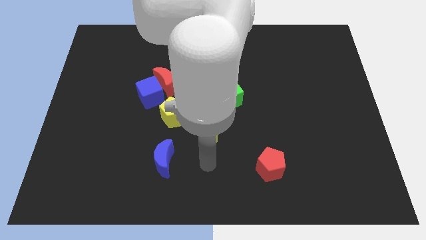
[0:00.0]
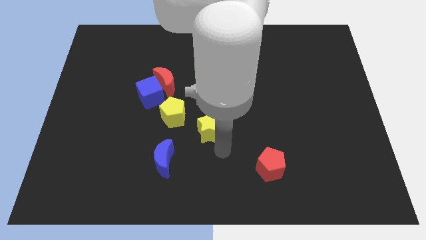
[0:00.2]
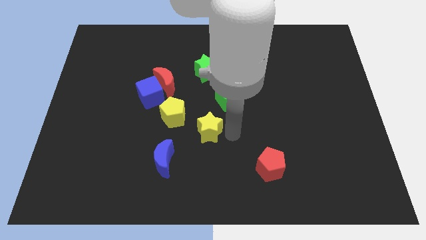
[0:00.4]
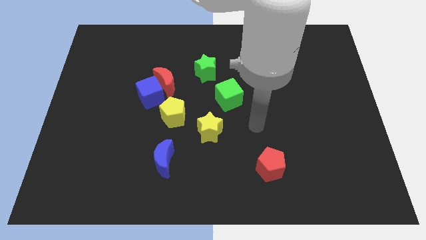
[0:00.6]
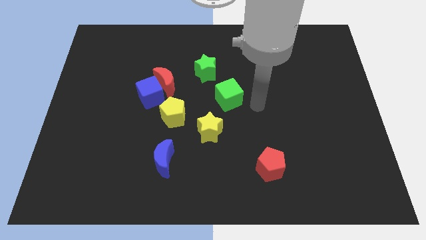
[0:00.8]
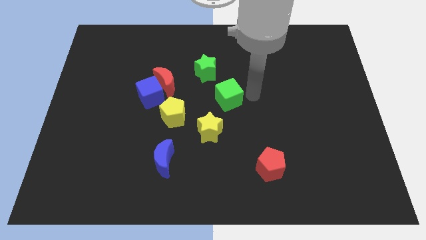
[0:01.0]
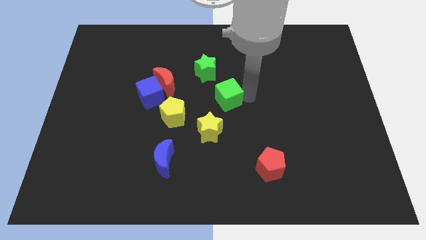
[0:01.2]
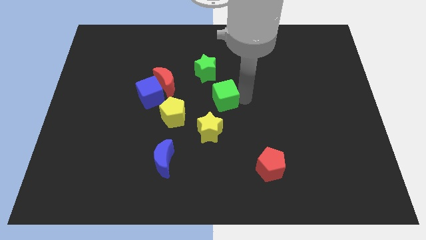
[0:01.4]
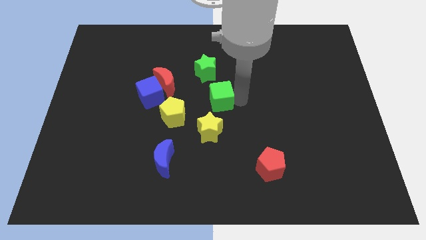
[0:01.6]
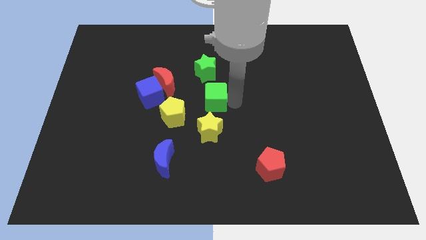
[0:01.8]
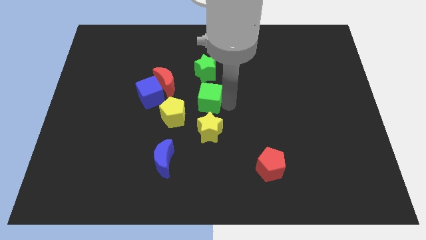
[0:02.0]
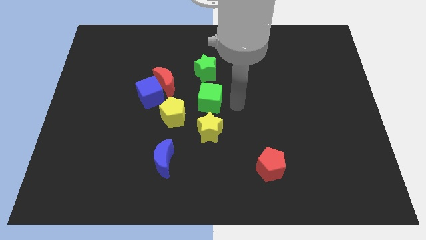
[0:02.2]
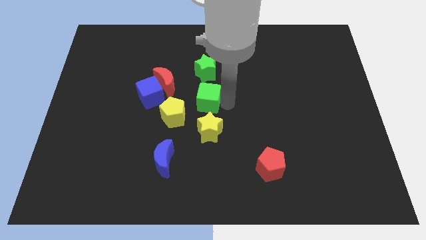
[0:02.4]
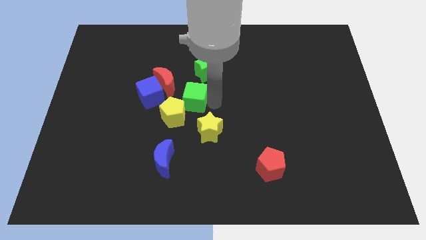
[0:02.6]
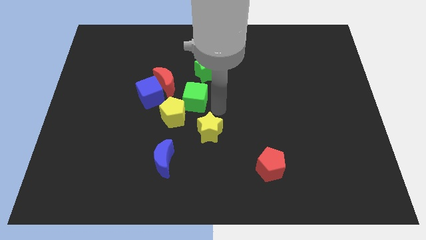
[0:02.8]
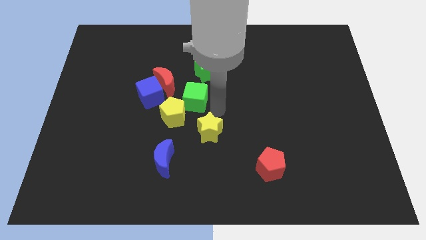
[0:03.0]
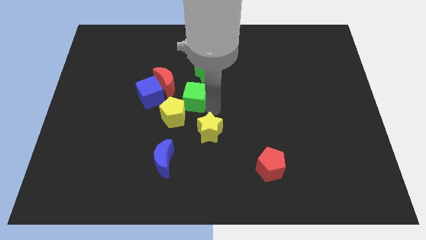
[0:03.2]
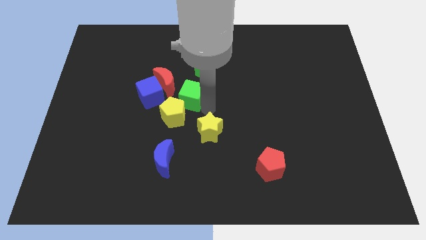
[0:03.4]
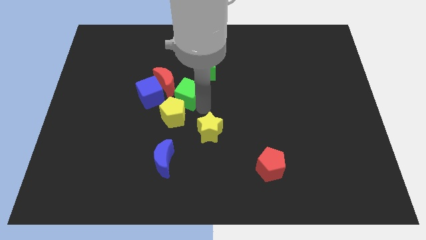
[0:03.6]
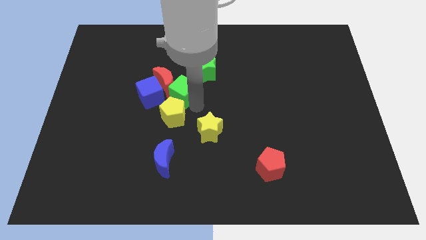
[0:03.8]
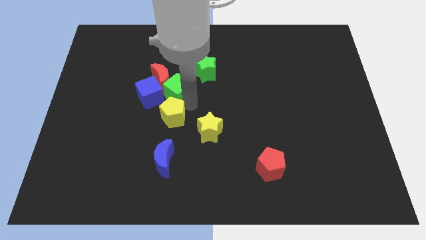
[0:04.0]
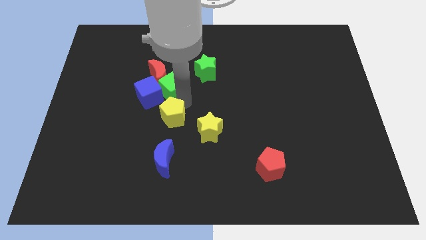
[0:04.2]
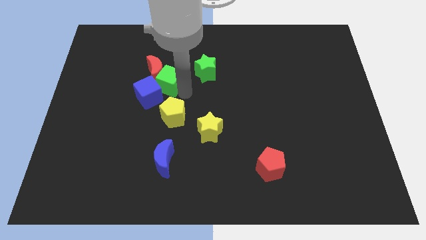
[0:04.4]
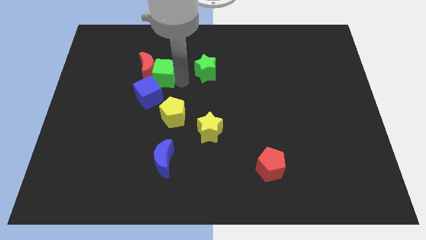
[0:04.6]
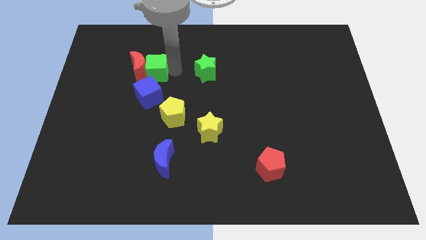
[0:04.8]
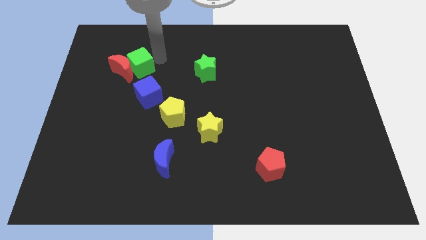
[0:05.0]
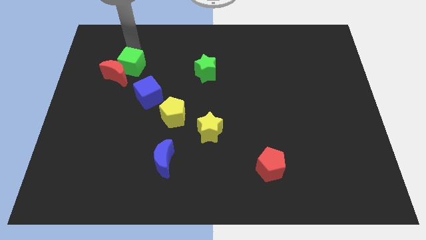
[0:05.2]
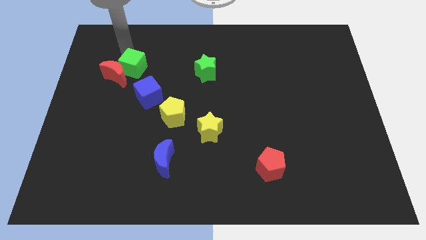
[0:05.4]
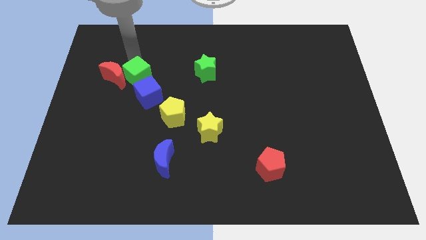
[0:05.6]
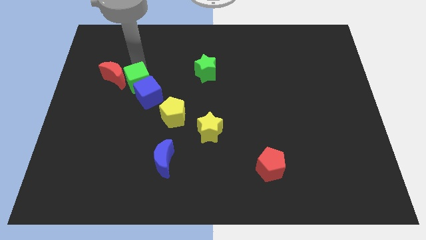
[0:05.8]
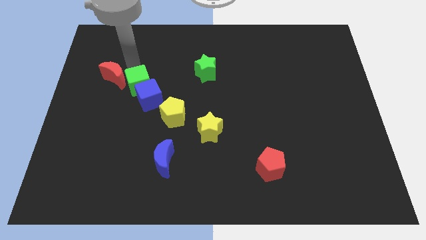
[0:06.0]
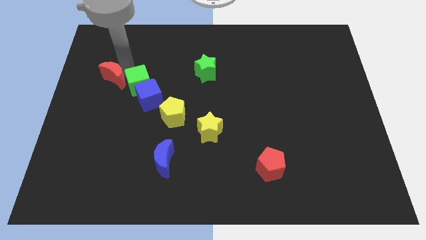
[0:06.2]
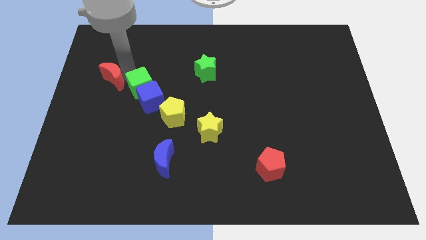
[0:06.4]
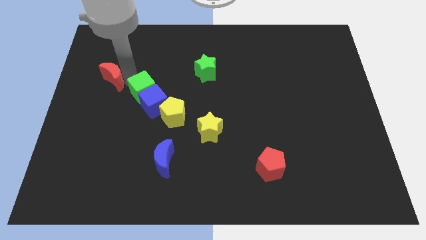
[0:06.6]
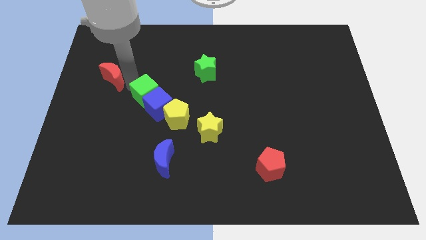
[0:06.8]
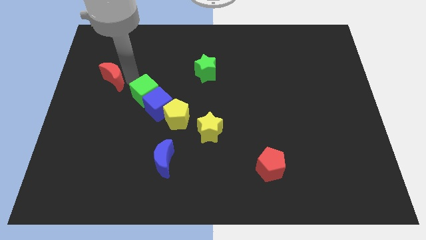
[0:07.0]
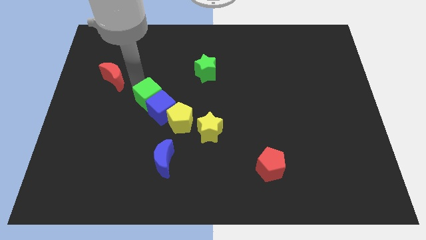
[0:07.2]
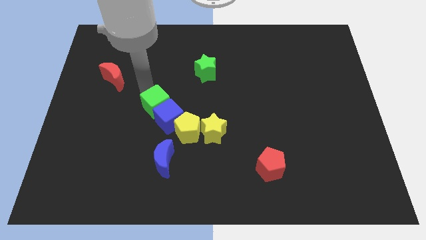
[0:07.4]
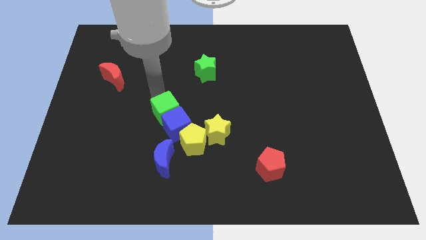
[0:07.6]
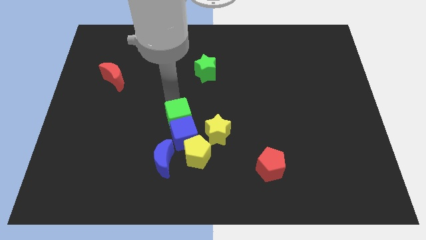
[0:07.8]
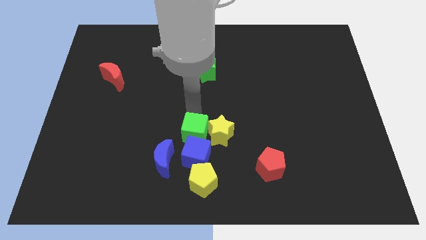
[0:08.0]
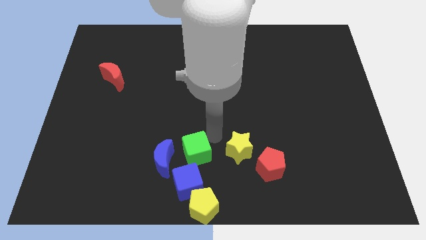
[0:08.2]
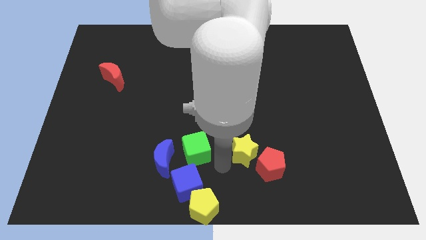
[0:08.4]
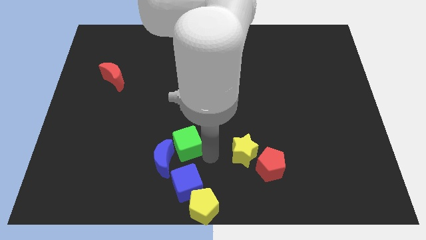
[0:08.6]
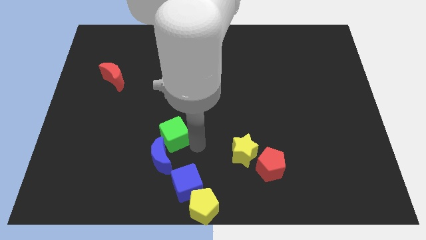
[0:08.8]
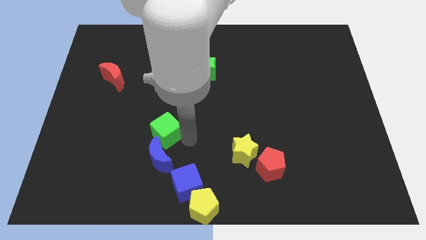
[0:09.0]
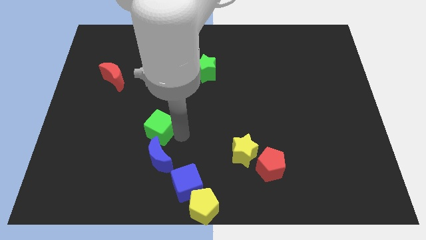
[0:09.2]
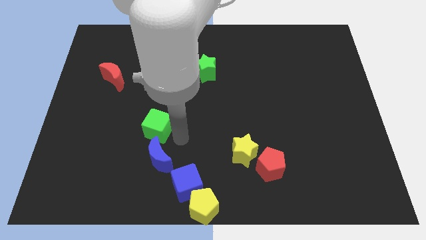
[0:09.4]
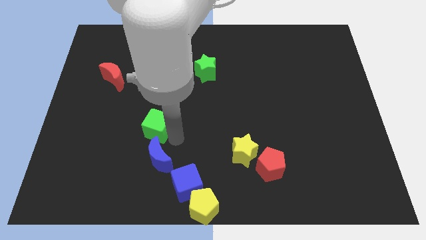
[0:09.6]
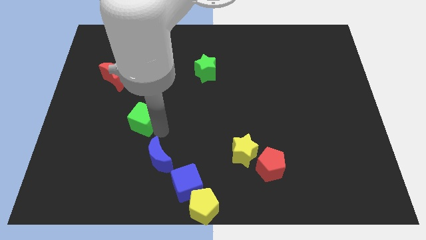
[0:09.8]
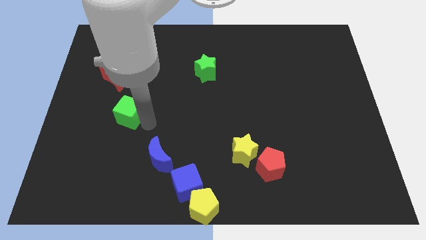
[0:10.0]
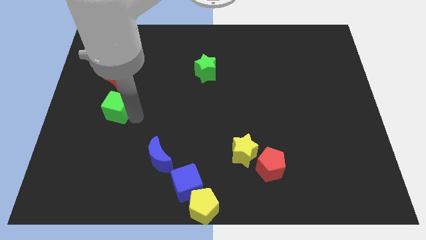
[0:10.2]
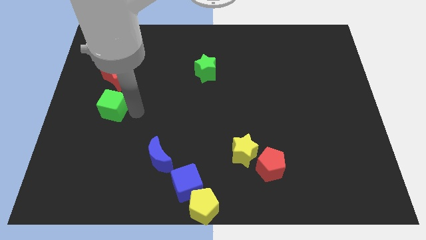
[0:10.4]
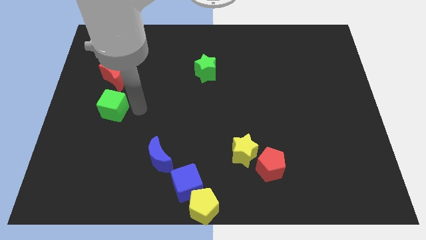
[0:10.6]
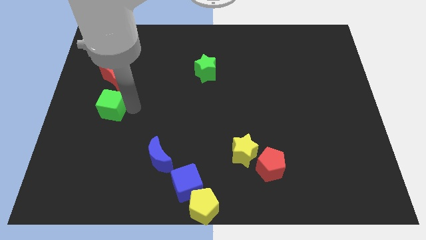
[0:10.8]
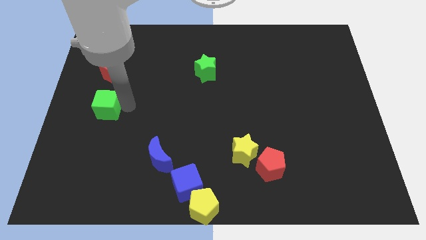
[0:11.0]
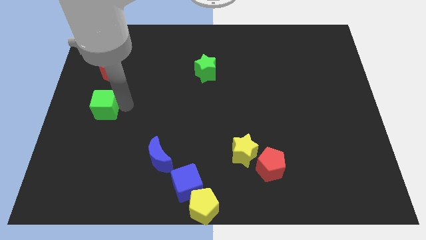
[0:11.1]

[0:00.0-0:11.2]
put the green cube to the left side

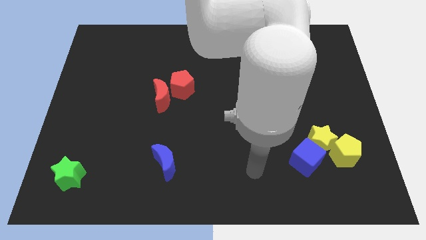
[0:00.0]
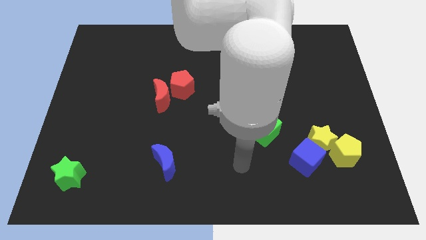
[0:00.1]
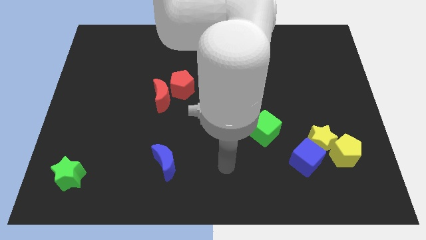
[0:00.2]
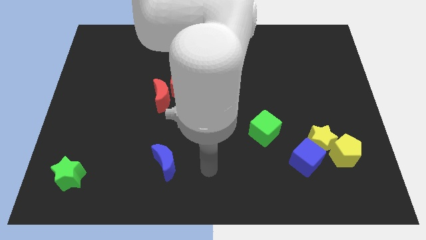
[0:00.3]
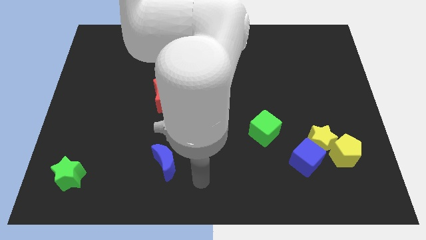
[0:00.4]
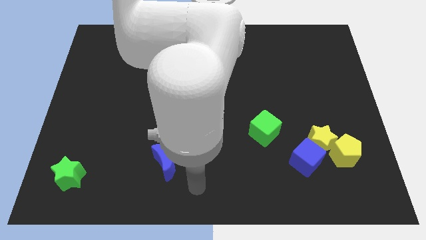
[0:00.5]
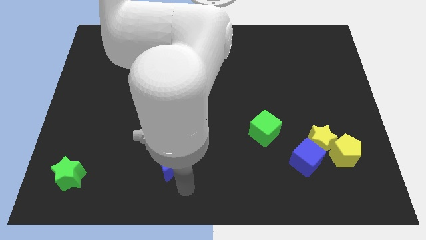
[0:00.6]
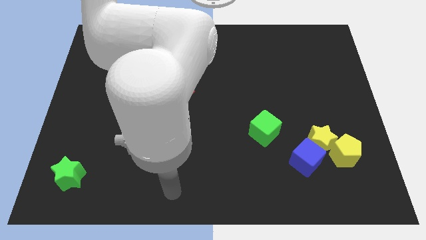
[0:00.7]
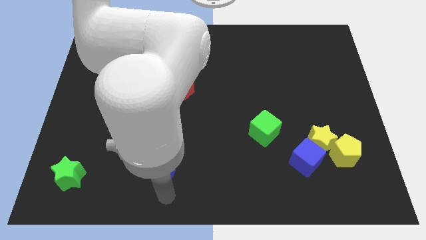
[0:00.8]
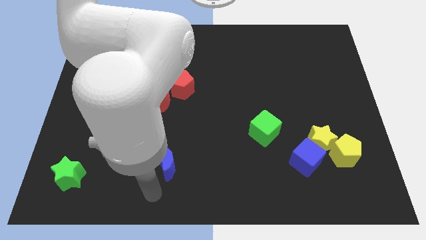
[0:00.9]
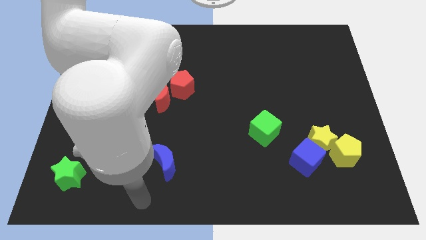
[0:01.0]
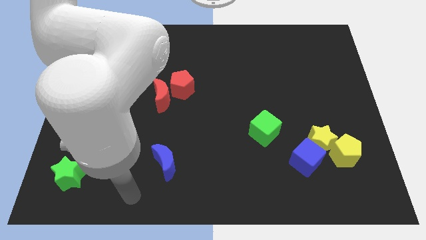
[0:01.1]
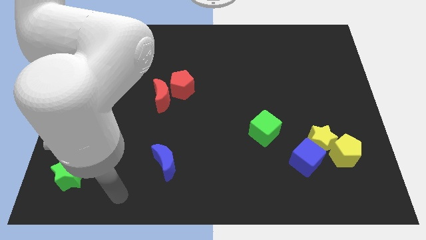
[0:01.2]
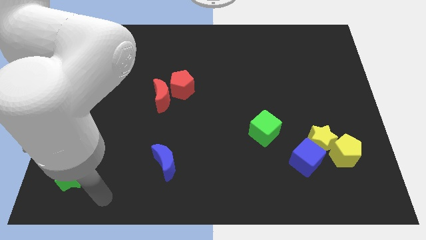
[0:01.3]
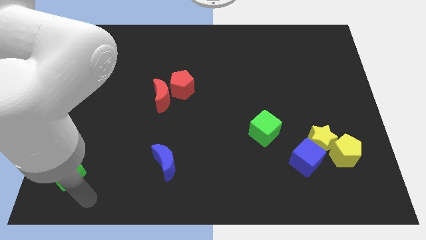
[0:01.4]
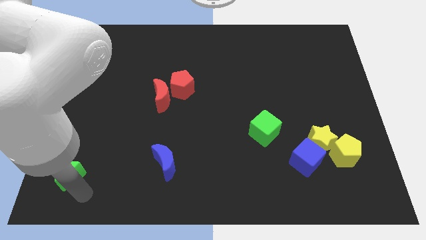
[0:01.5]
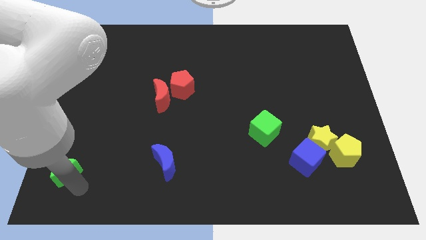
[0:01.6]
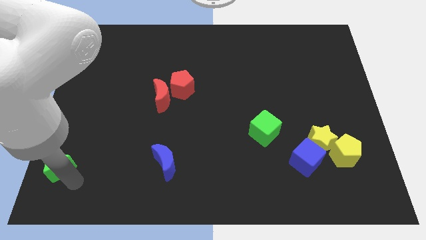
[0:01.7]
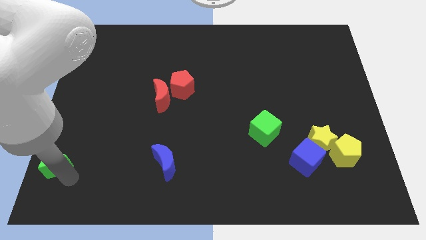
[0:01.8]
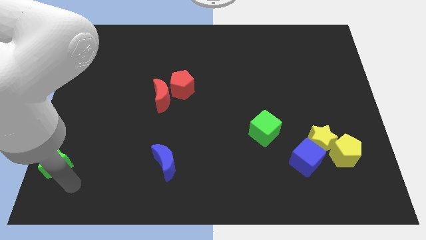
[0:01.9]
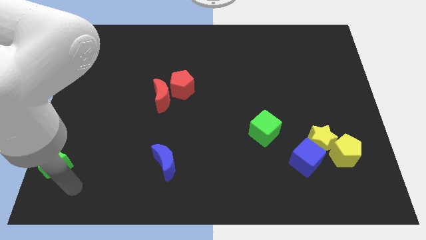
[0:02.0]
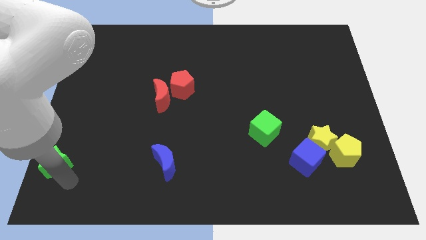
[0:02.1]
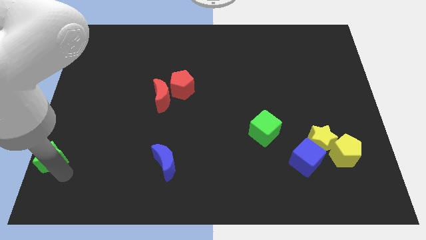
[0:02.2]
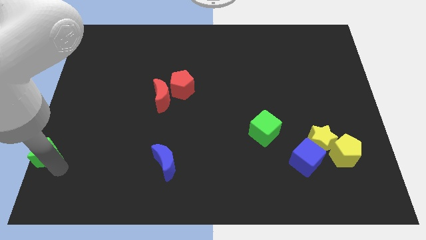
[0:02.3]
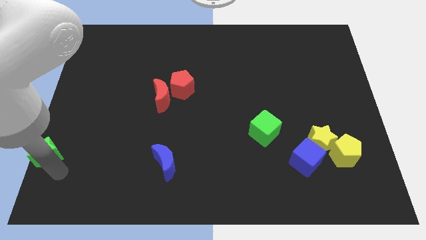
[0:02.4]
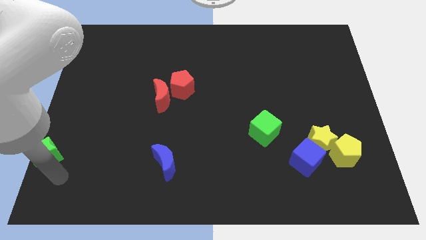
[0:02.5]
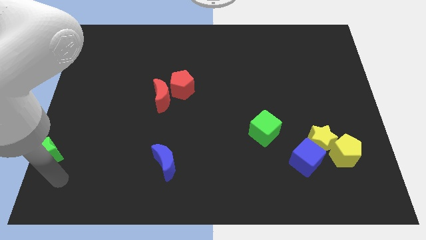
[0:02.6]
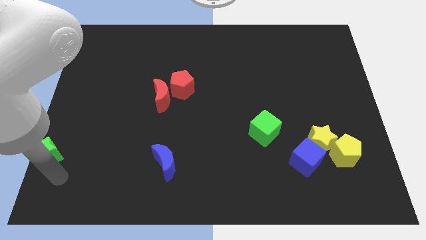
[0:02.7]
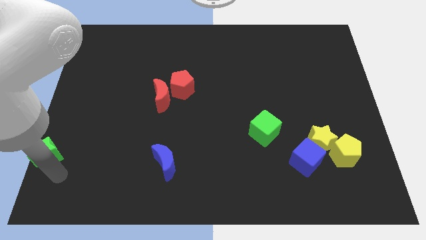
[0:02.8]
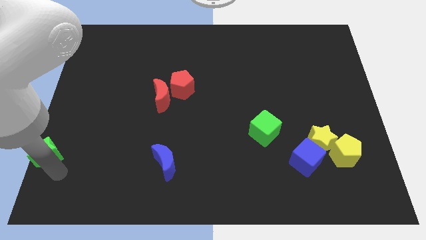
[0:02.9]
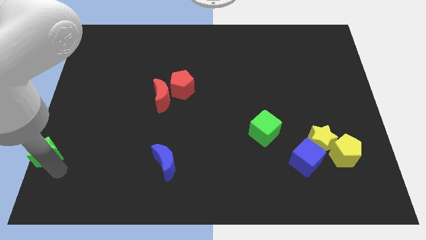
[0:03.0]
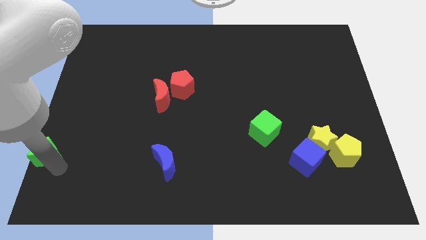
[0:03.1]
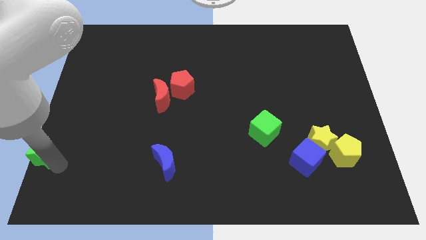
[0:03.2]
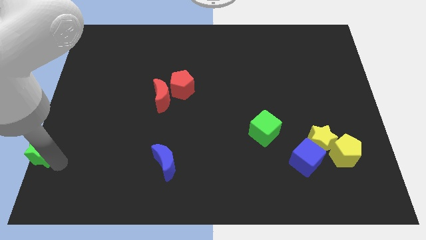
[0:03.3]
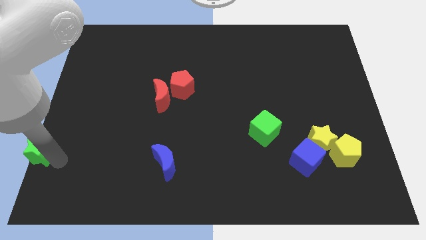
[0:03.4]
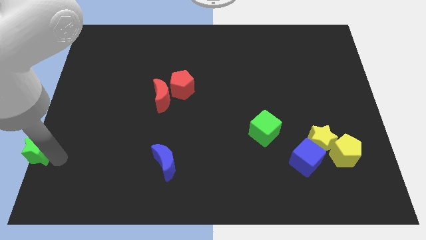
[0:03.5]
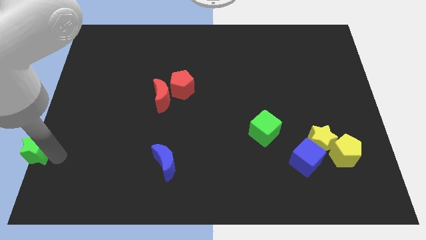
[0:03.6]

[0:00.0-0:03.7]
slide the green star to the center left
